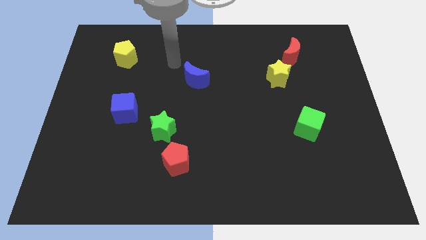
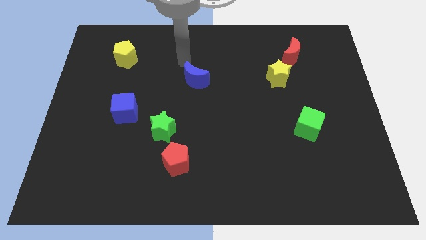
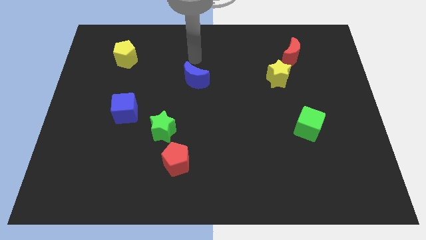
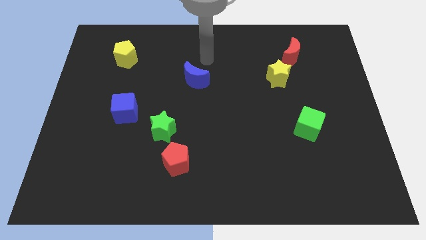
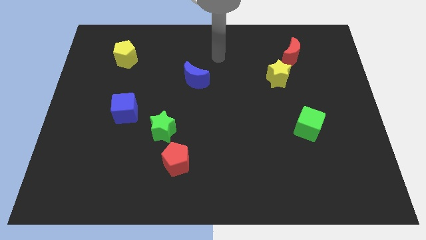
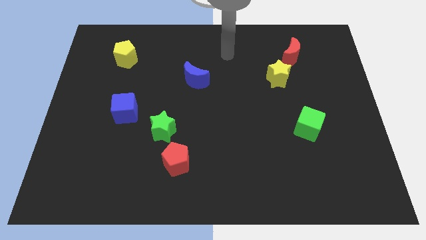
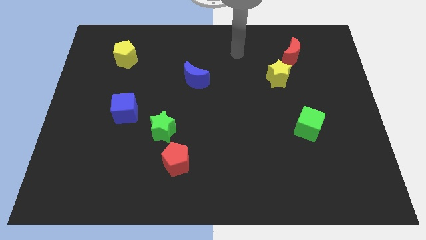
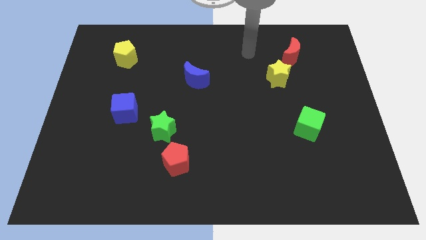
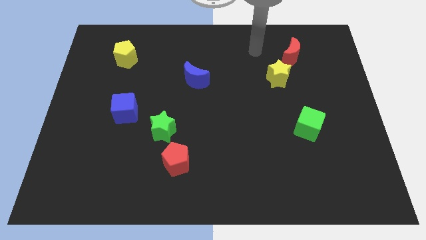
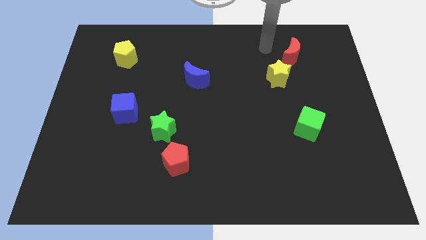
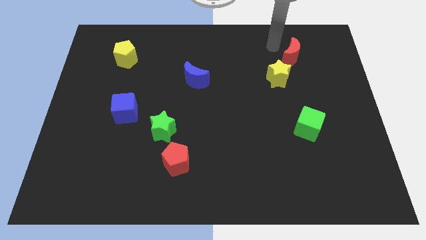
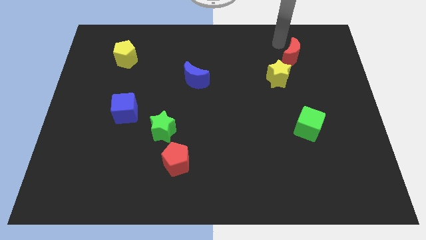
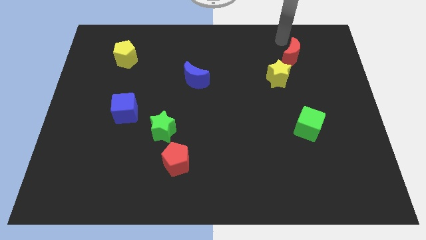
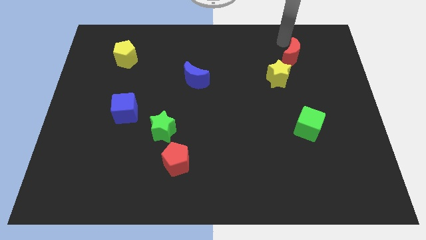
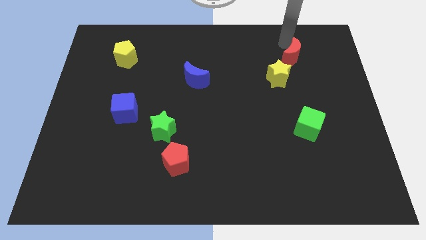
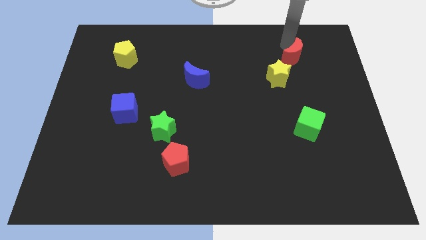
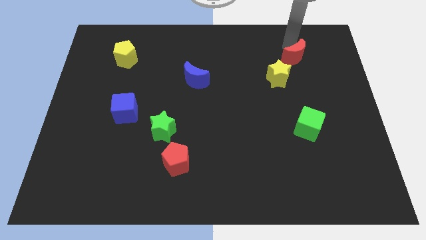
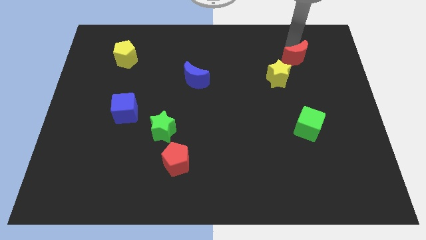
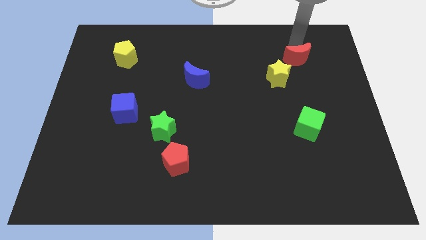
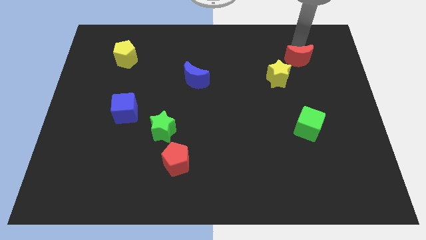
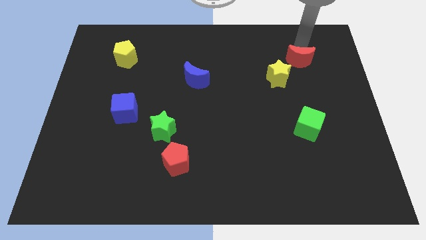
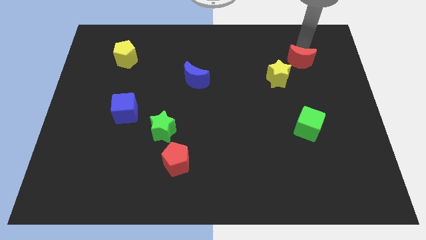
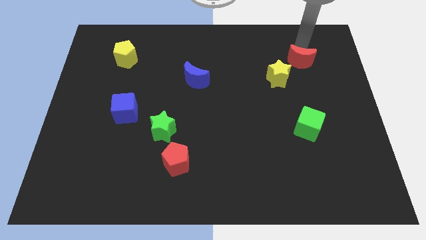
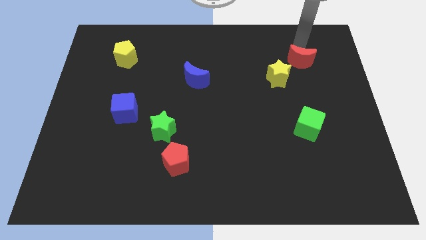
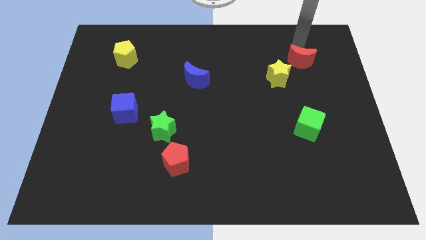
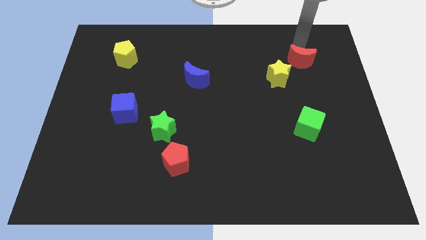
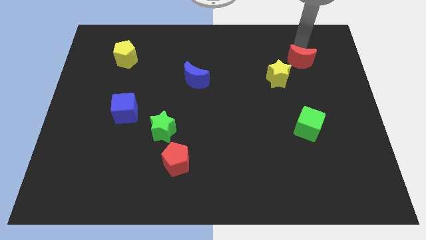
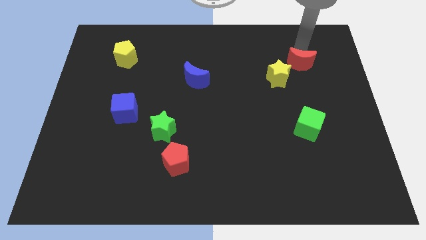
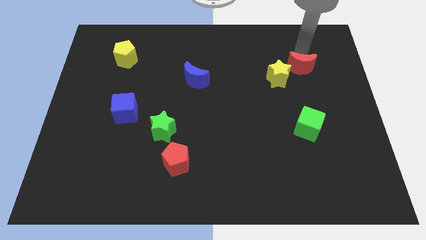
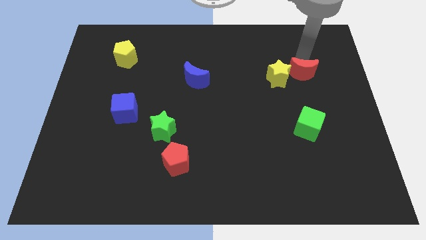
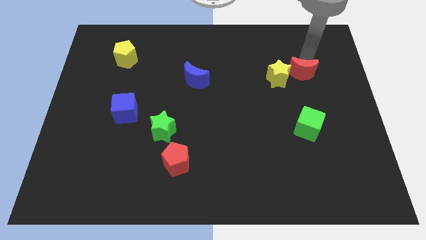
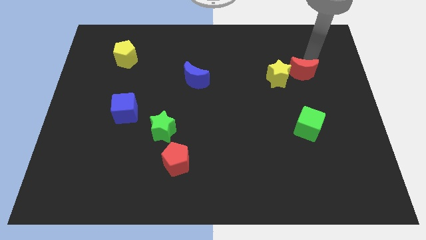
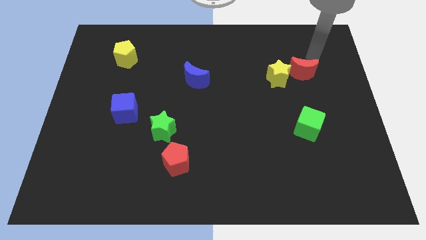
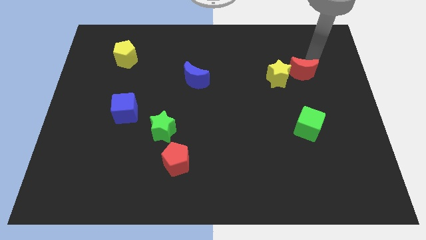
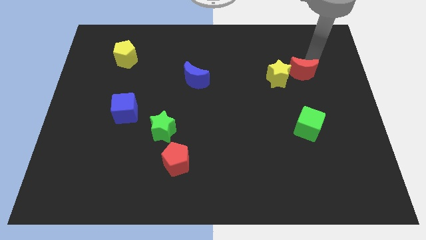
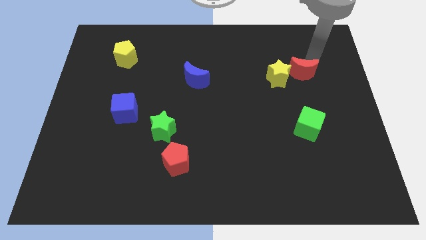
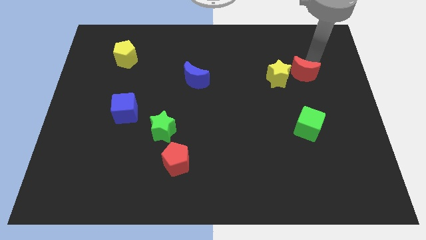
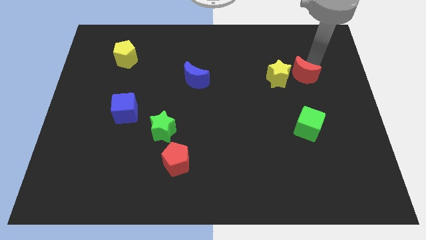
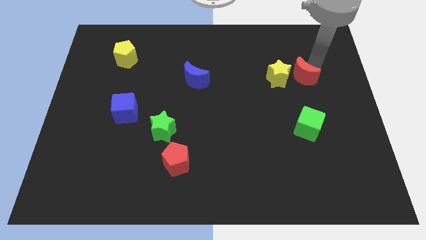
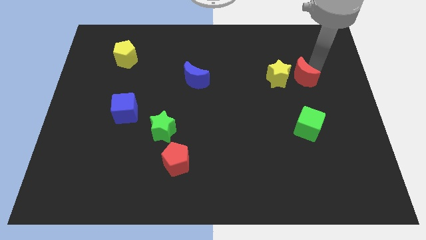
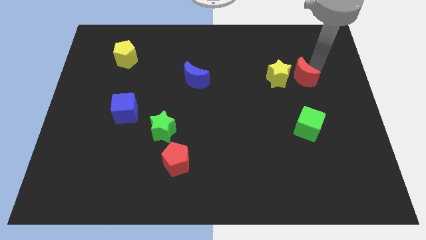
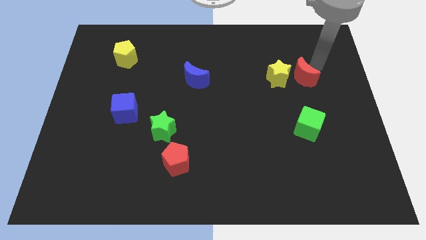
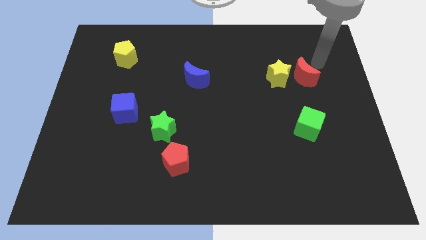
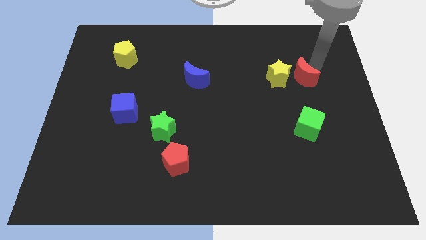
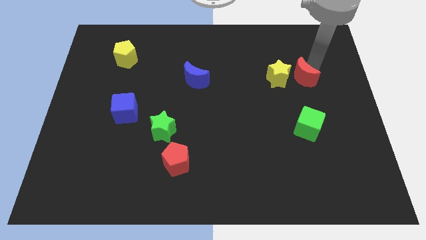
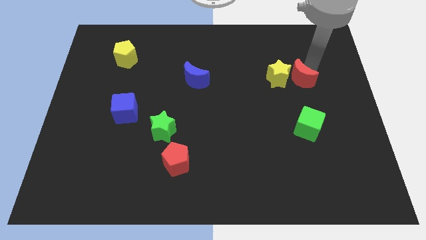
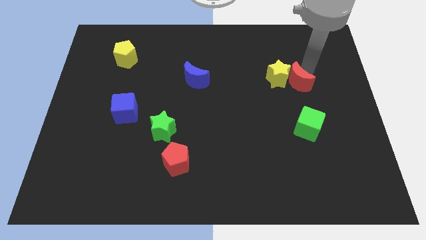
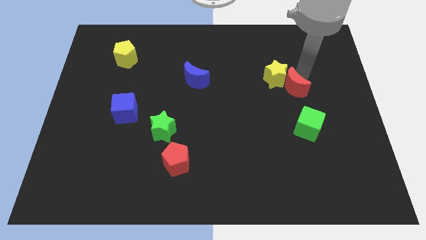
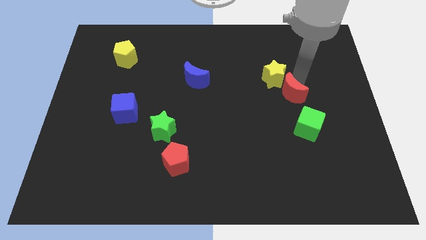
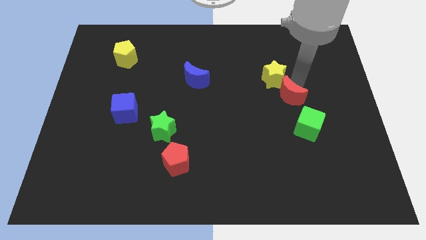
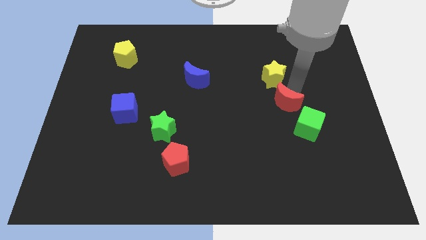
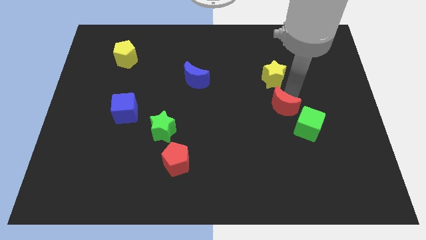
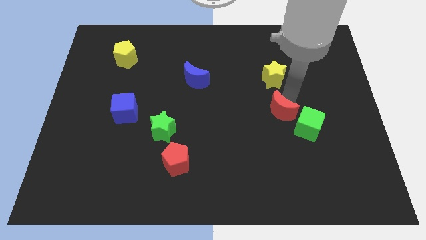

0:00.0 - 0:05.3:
move the red moon to the left of the green cube

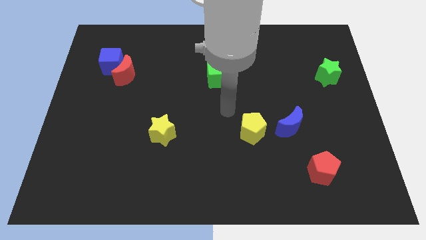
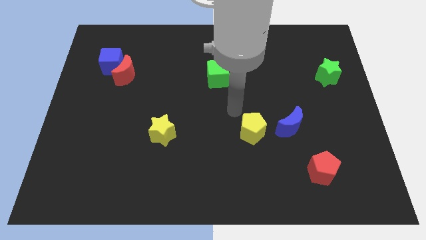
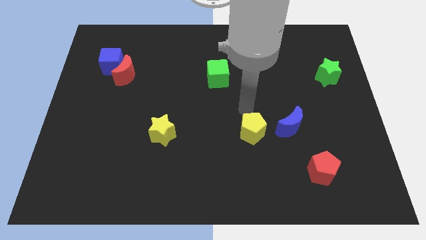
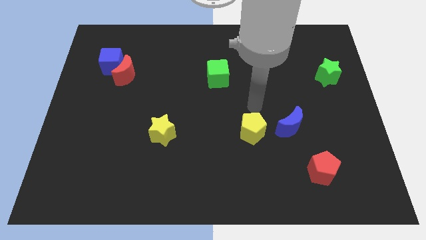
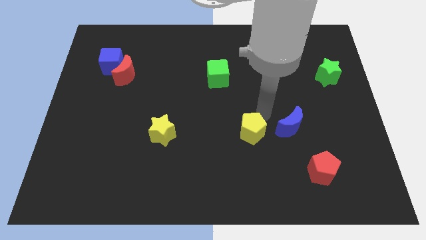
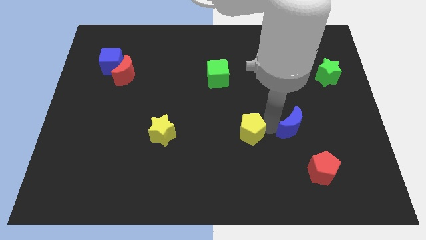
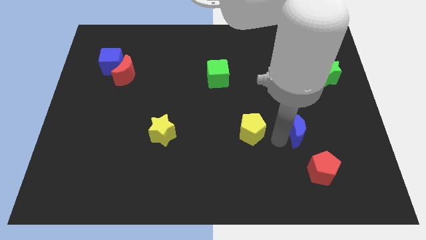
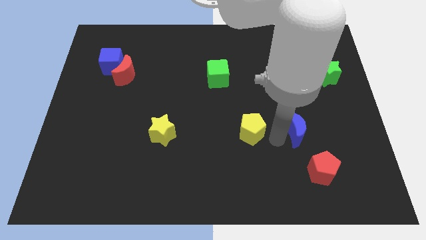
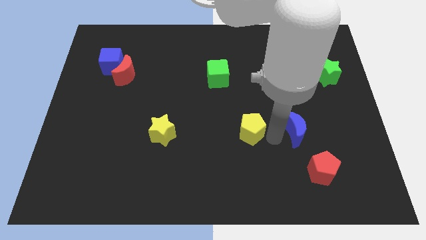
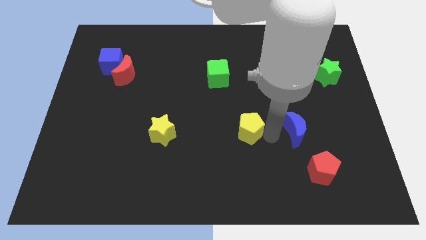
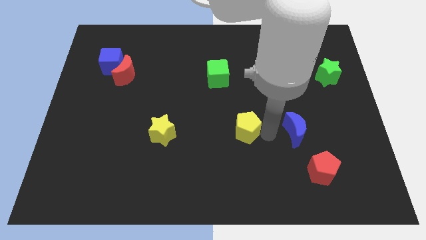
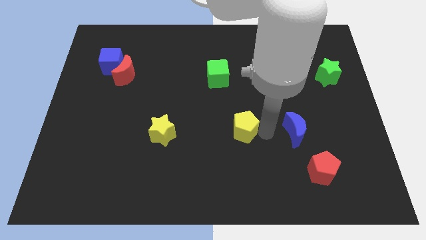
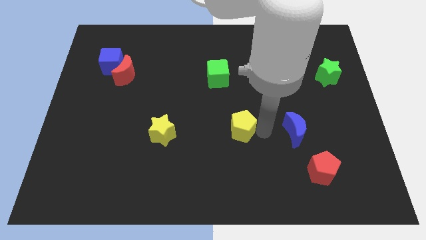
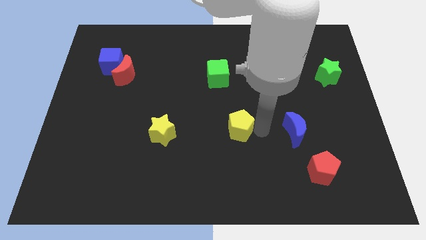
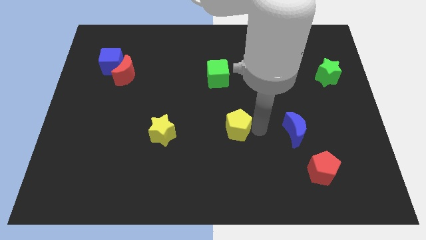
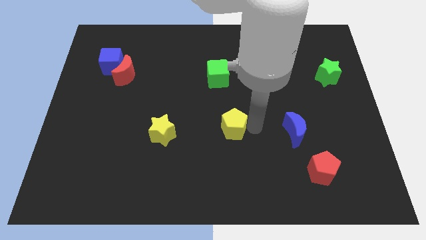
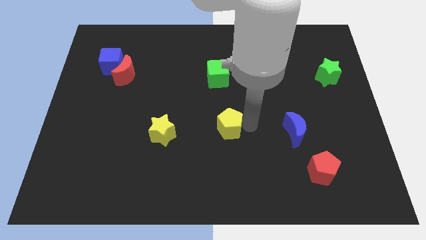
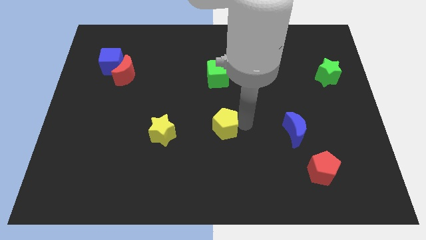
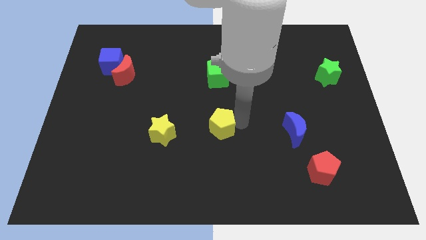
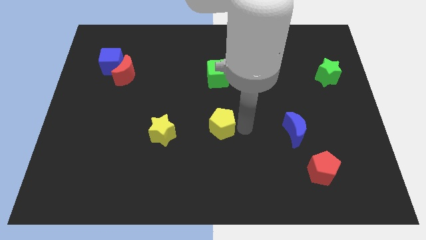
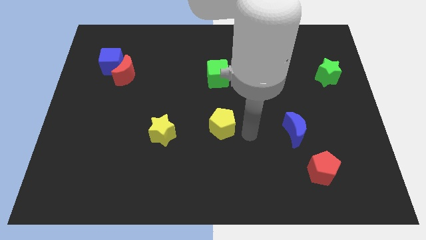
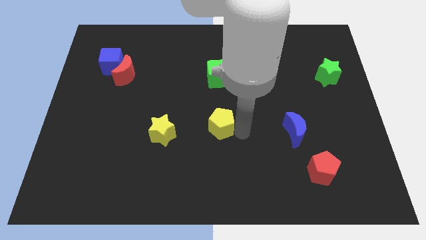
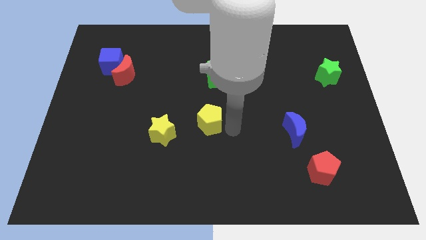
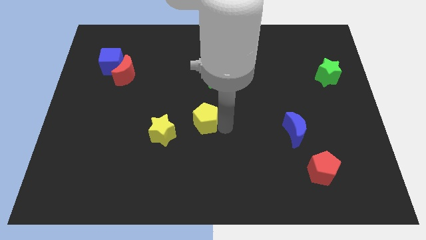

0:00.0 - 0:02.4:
push the yellow pentagon to the top right side of the yellow star
